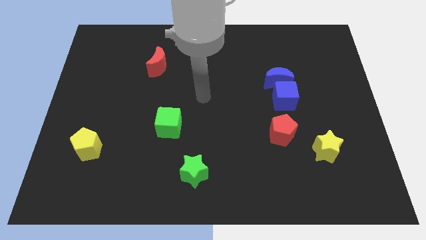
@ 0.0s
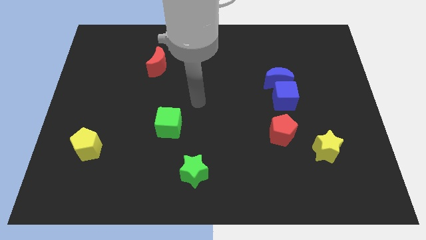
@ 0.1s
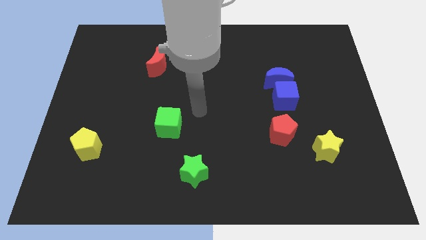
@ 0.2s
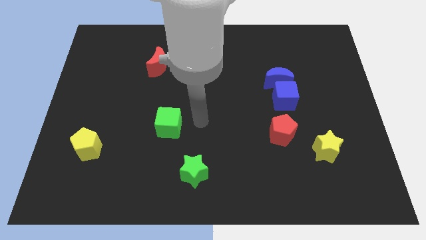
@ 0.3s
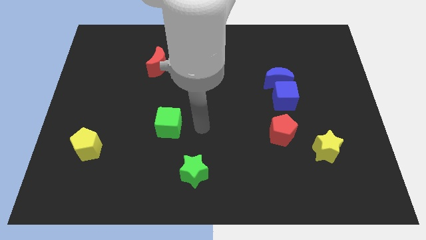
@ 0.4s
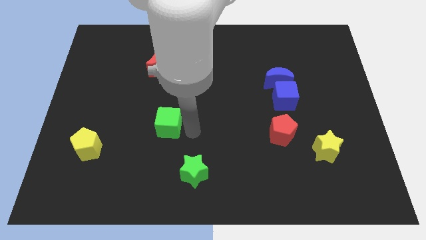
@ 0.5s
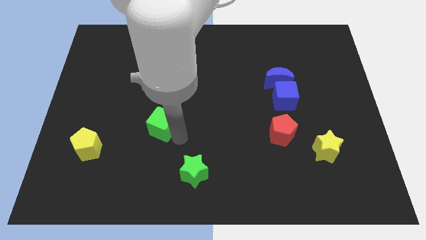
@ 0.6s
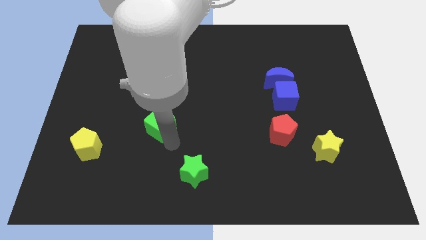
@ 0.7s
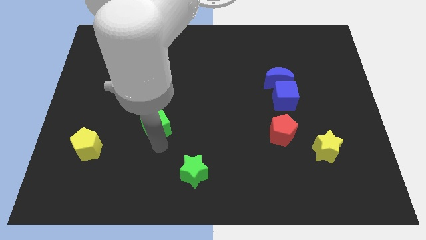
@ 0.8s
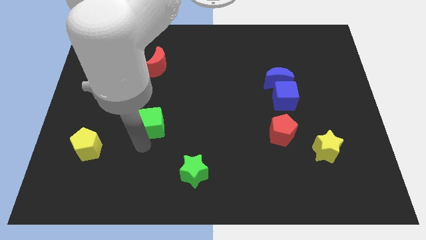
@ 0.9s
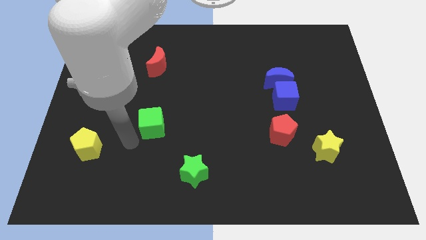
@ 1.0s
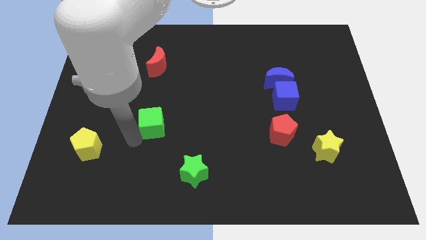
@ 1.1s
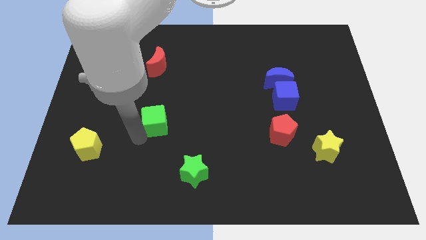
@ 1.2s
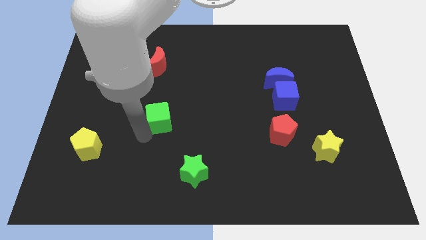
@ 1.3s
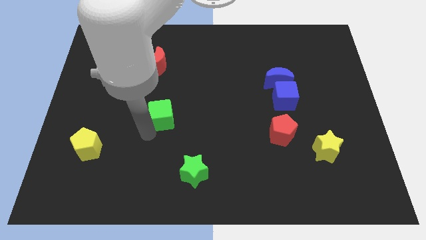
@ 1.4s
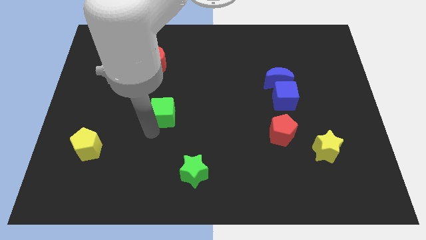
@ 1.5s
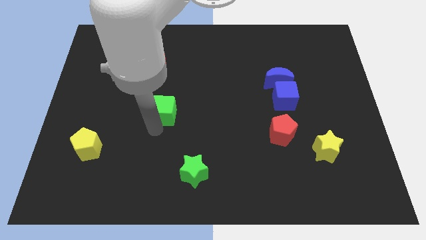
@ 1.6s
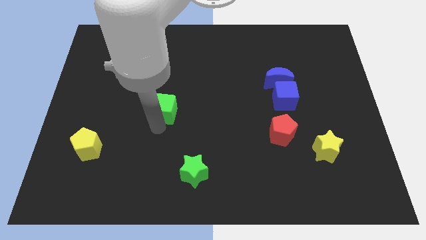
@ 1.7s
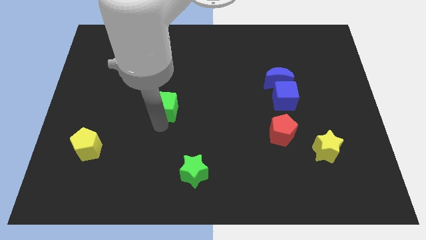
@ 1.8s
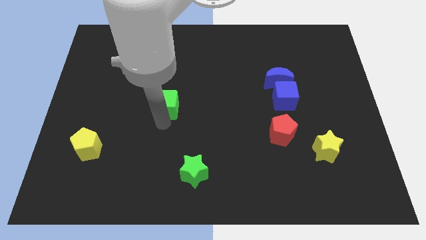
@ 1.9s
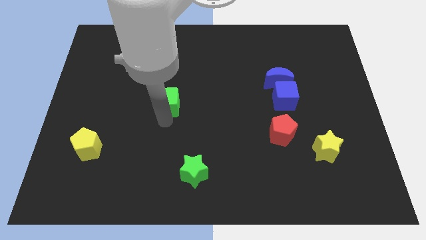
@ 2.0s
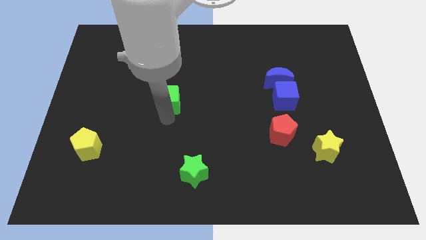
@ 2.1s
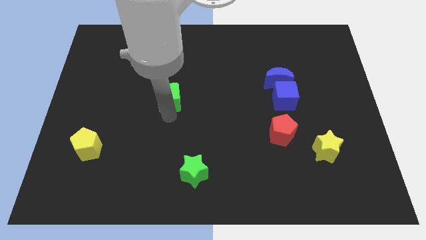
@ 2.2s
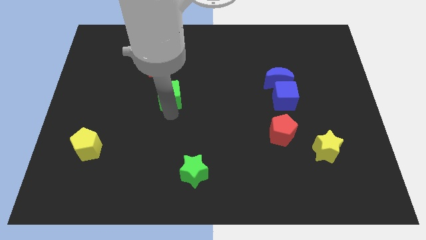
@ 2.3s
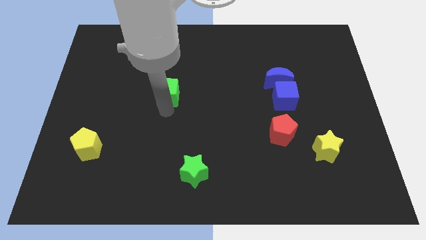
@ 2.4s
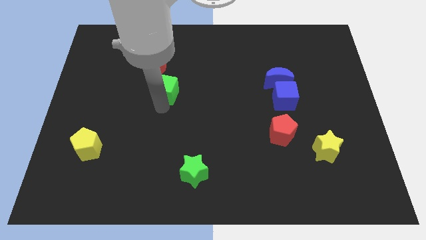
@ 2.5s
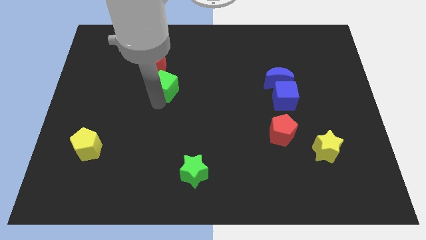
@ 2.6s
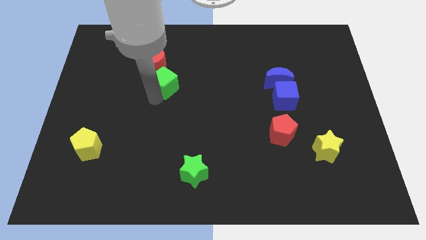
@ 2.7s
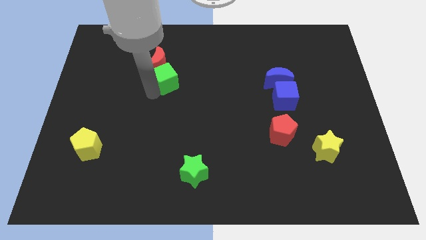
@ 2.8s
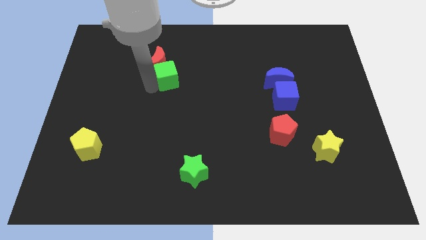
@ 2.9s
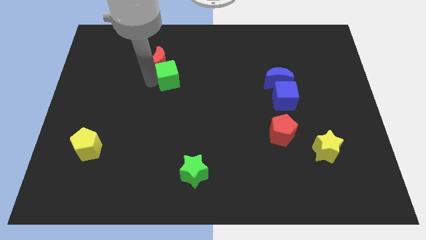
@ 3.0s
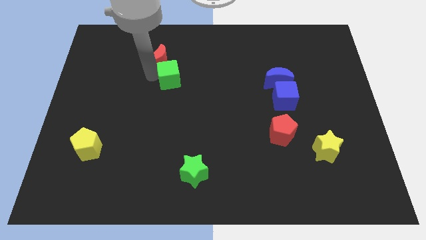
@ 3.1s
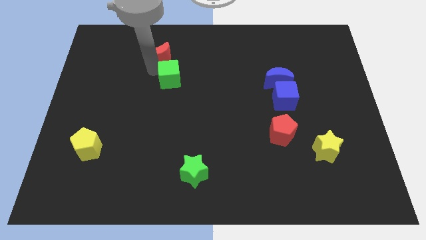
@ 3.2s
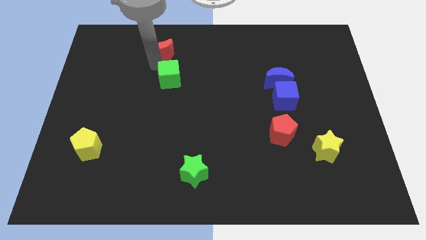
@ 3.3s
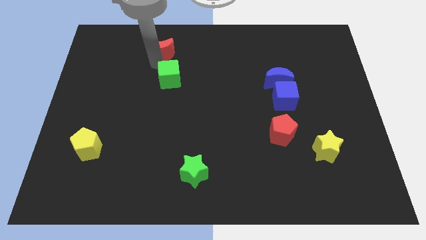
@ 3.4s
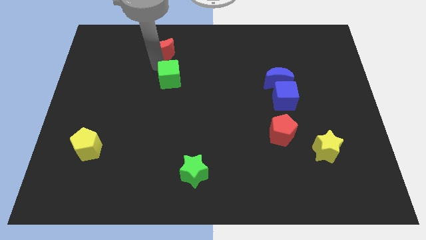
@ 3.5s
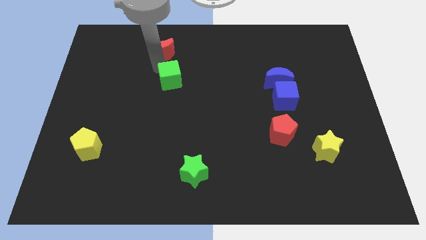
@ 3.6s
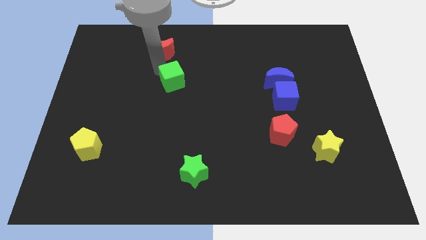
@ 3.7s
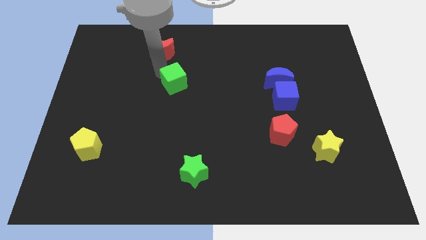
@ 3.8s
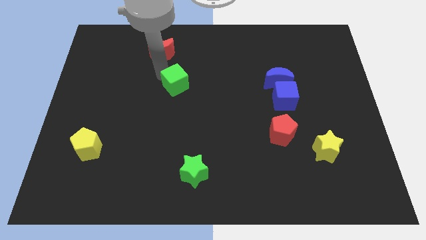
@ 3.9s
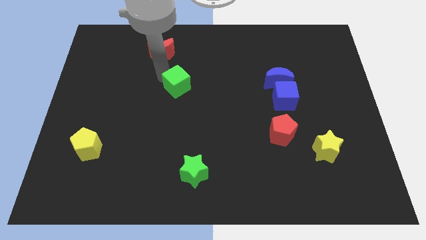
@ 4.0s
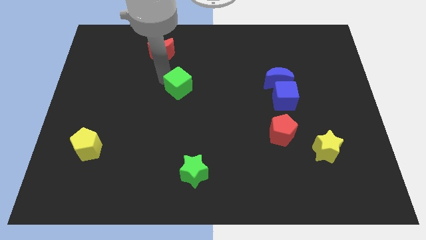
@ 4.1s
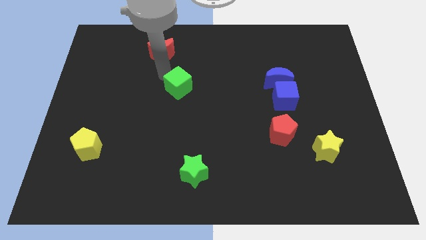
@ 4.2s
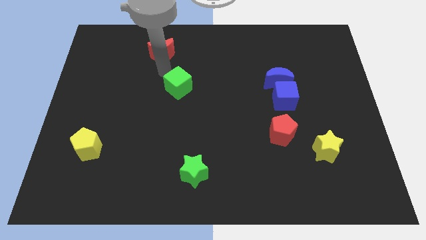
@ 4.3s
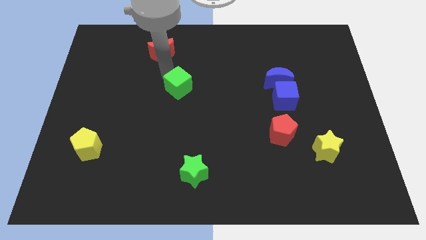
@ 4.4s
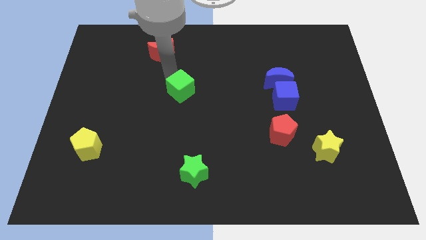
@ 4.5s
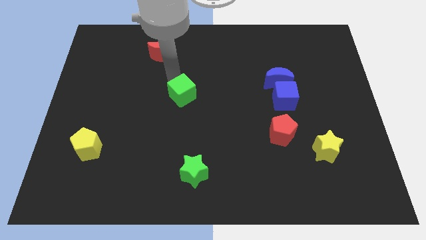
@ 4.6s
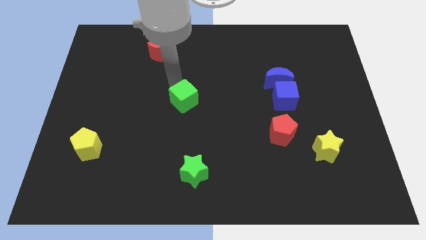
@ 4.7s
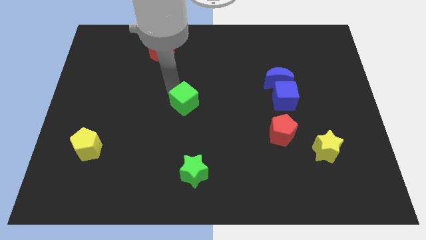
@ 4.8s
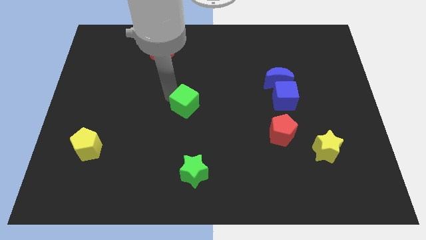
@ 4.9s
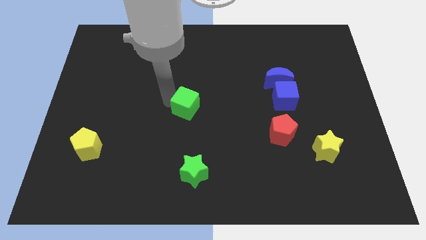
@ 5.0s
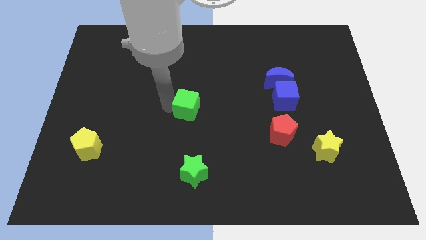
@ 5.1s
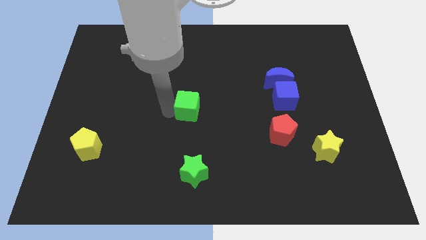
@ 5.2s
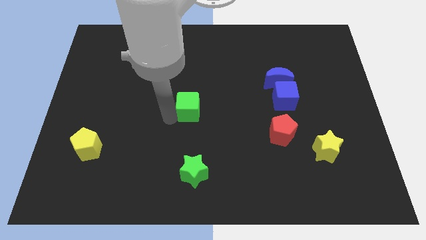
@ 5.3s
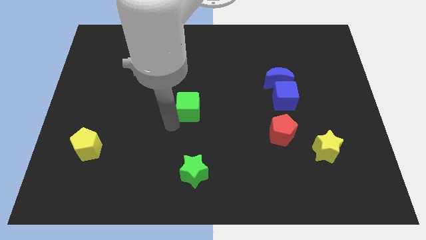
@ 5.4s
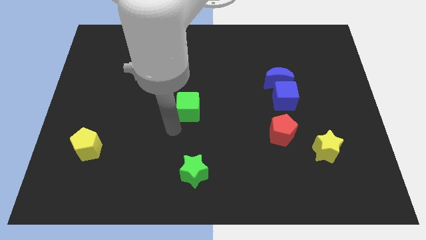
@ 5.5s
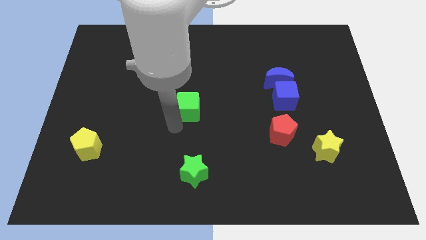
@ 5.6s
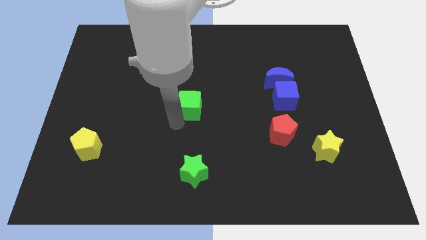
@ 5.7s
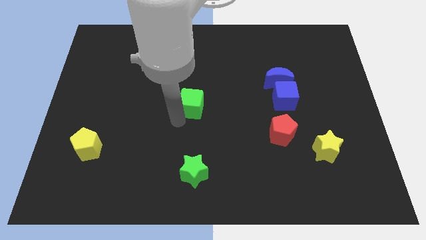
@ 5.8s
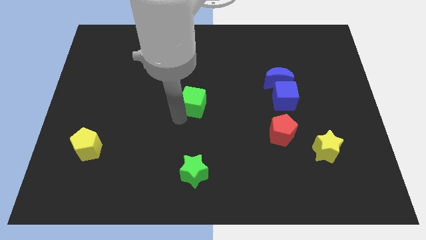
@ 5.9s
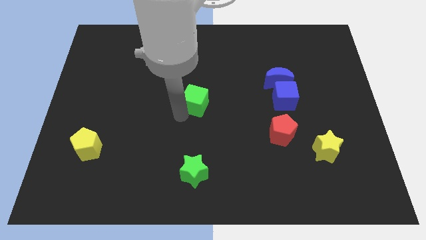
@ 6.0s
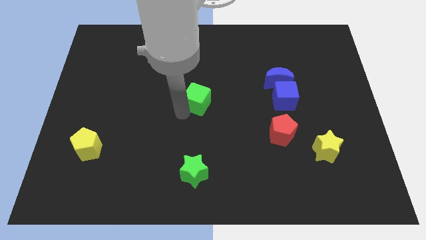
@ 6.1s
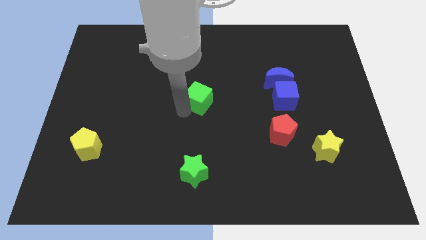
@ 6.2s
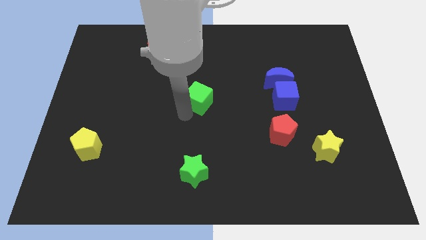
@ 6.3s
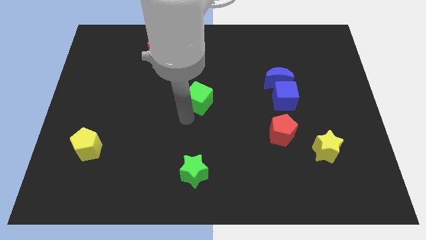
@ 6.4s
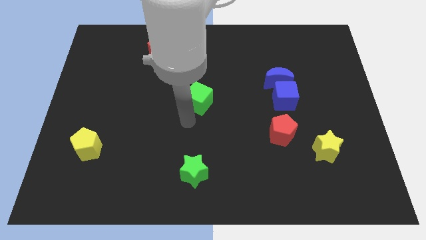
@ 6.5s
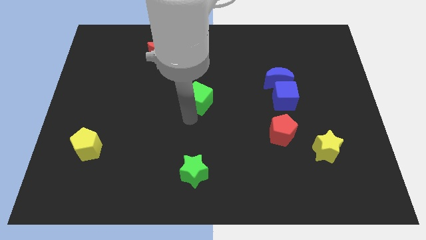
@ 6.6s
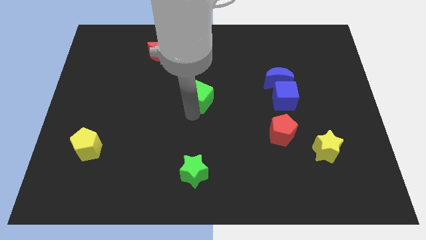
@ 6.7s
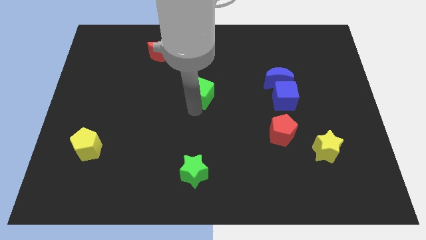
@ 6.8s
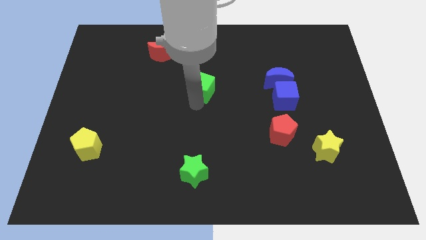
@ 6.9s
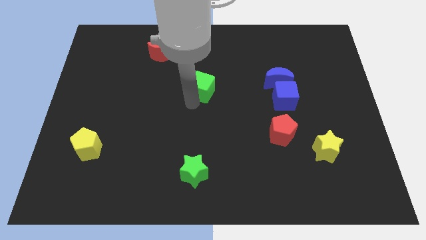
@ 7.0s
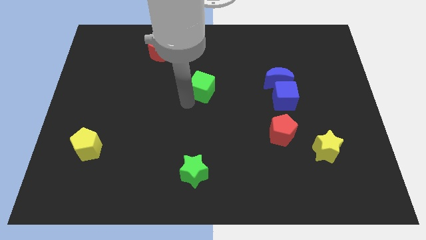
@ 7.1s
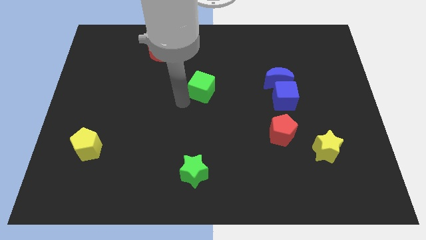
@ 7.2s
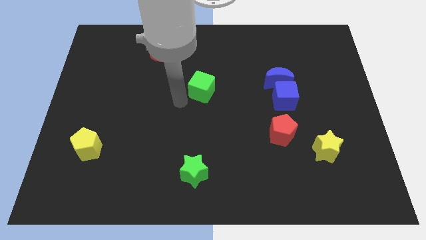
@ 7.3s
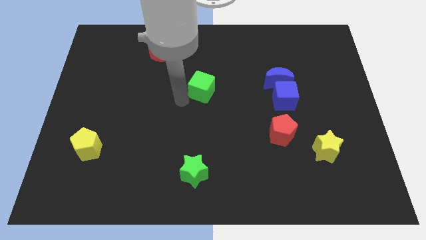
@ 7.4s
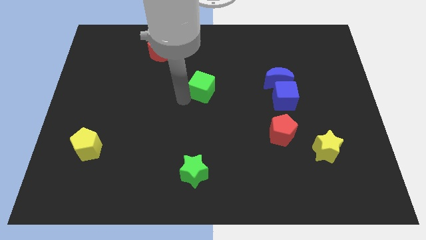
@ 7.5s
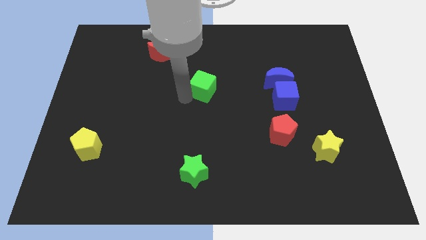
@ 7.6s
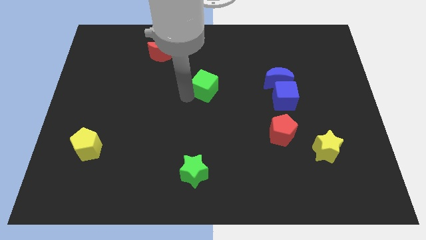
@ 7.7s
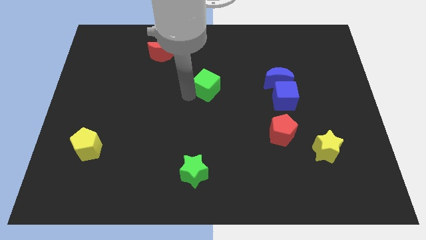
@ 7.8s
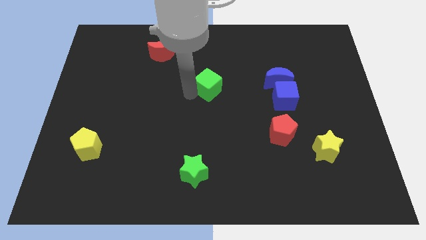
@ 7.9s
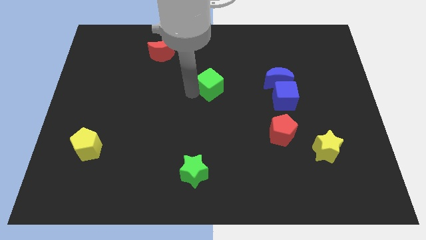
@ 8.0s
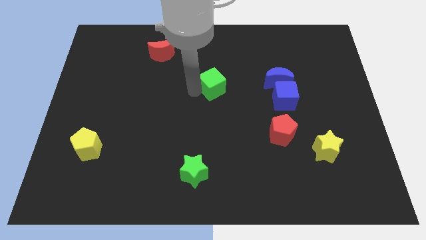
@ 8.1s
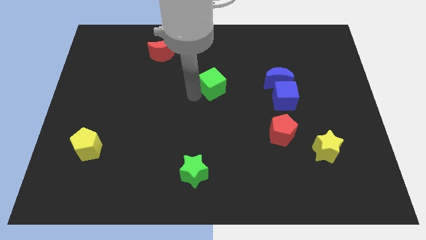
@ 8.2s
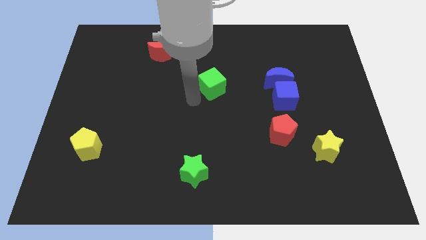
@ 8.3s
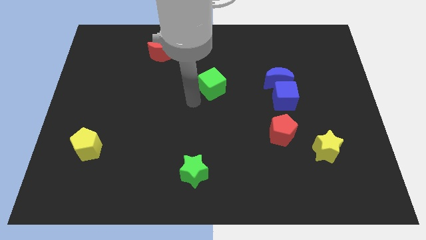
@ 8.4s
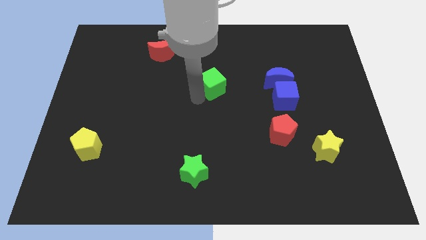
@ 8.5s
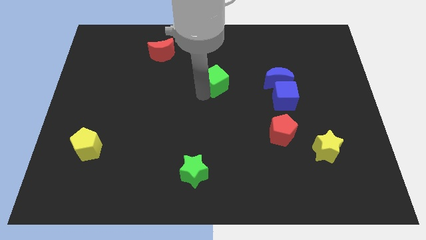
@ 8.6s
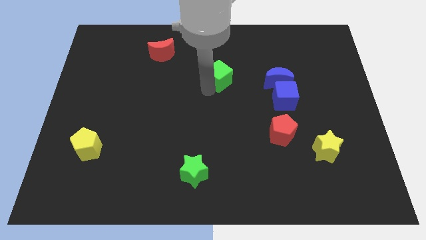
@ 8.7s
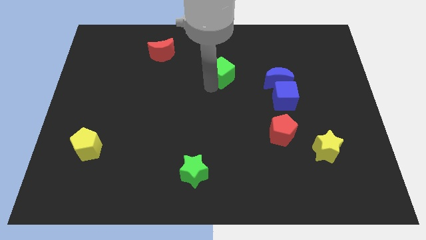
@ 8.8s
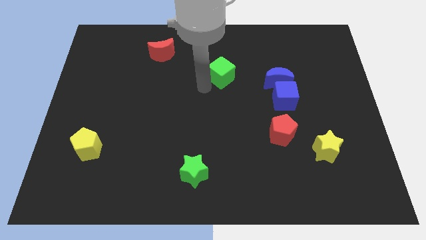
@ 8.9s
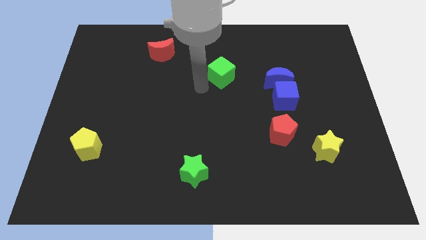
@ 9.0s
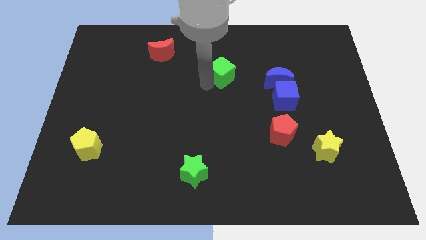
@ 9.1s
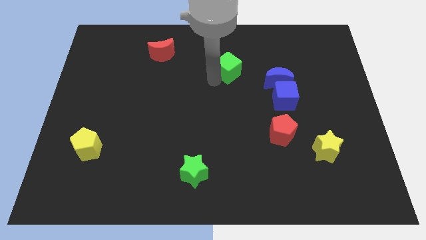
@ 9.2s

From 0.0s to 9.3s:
move the green cube up and then to the right
